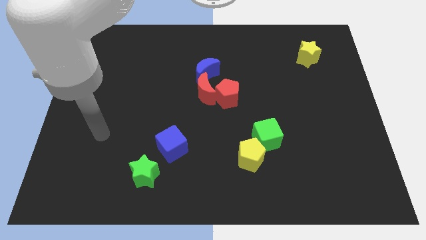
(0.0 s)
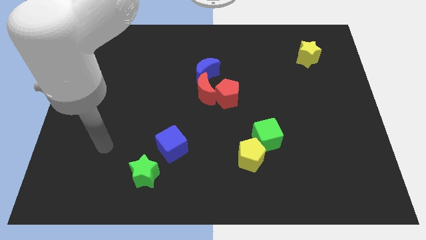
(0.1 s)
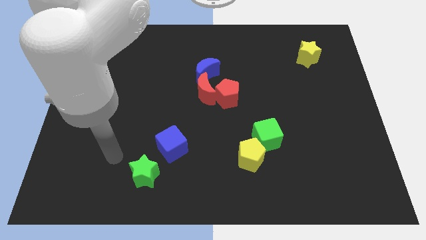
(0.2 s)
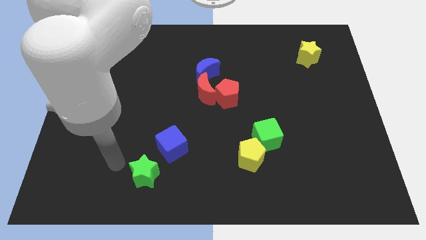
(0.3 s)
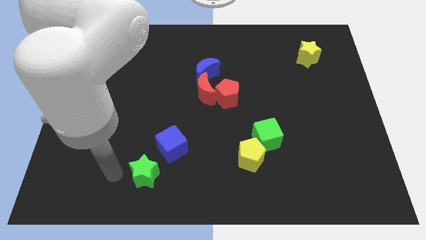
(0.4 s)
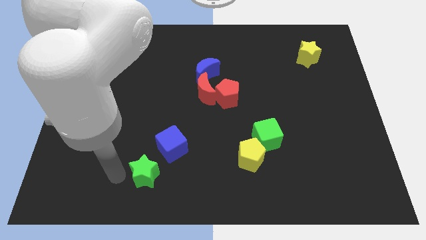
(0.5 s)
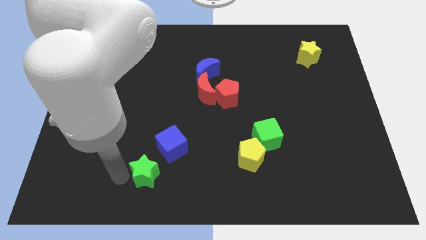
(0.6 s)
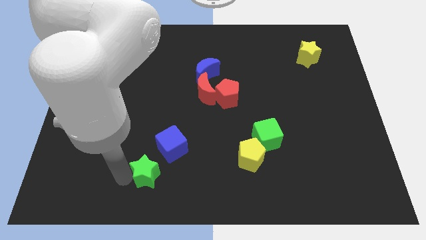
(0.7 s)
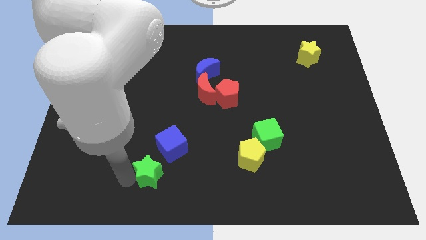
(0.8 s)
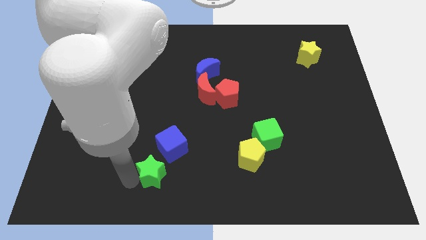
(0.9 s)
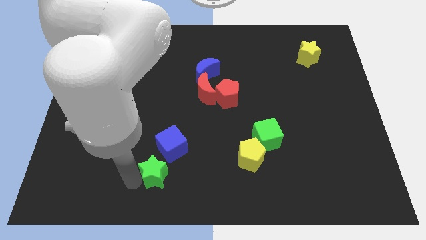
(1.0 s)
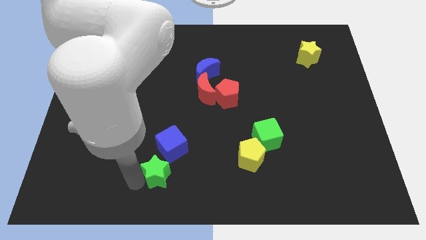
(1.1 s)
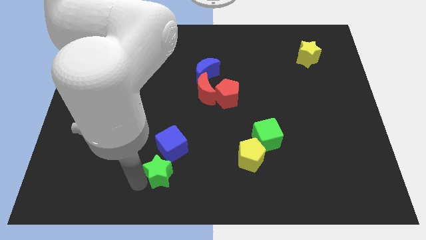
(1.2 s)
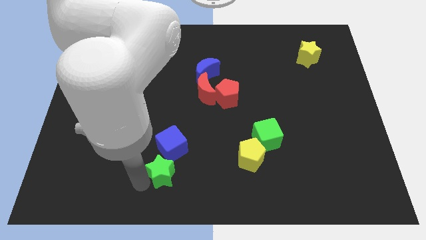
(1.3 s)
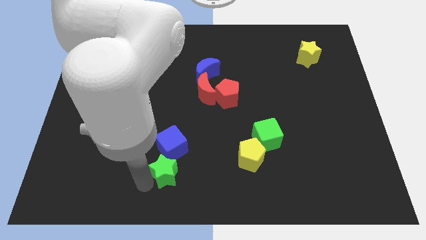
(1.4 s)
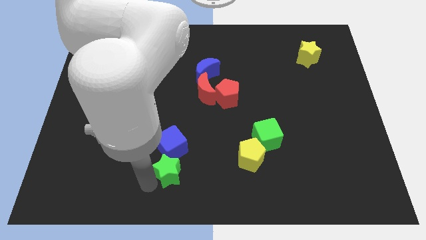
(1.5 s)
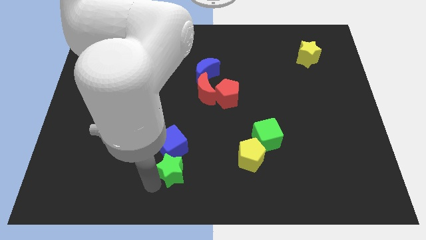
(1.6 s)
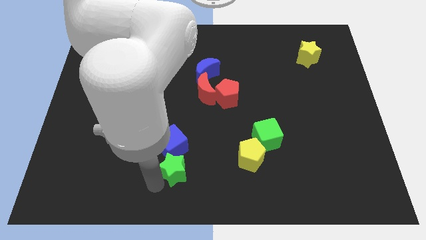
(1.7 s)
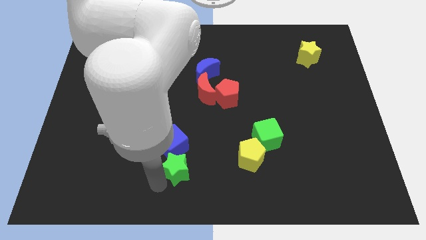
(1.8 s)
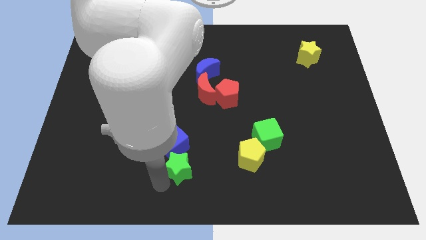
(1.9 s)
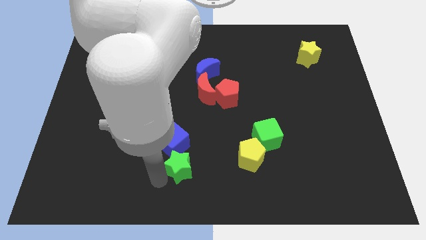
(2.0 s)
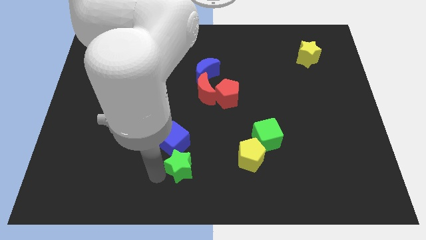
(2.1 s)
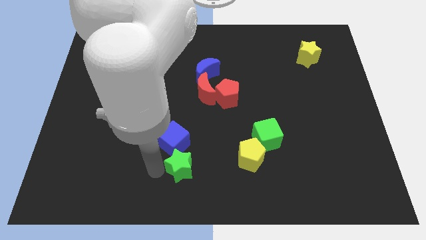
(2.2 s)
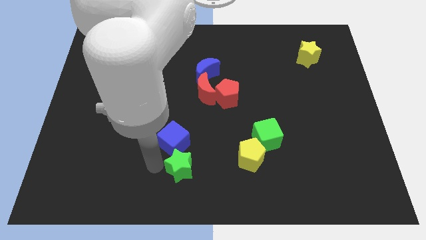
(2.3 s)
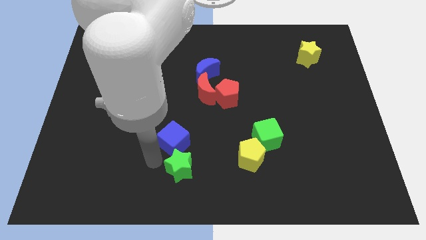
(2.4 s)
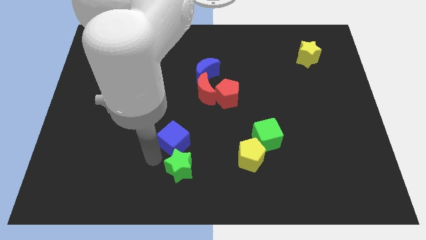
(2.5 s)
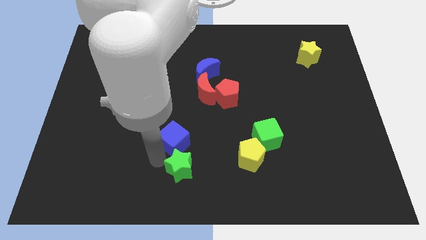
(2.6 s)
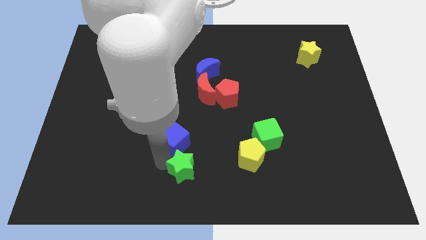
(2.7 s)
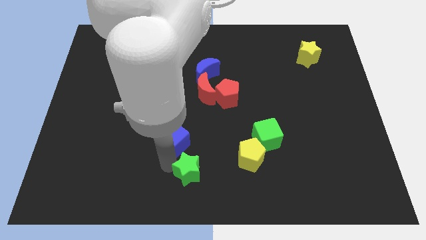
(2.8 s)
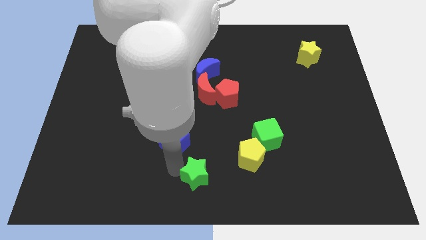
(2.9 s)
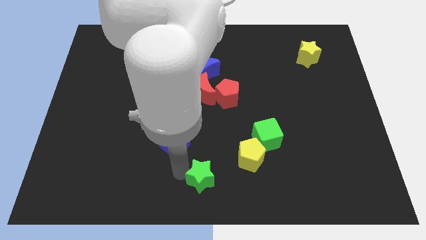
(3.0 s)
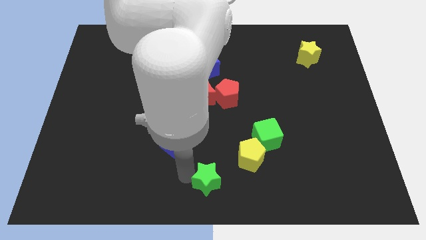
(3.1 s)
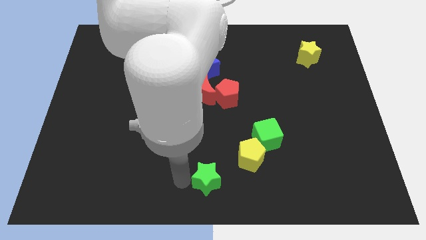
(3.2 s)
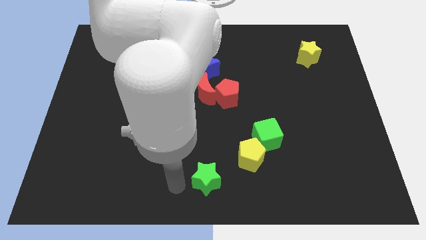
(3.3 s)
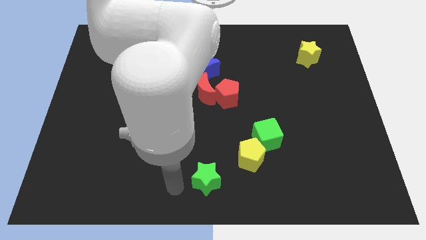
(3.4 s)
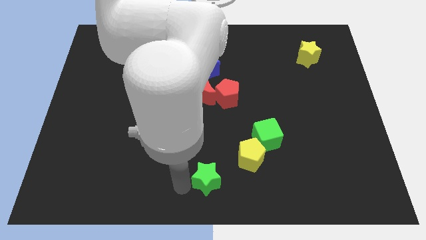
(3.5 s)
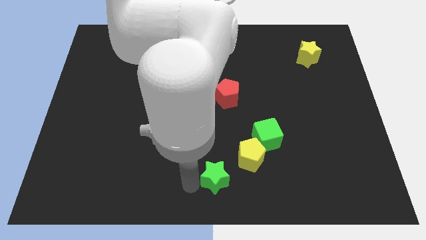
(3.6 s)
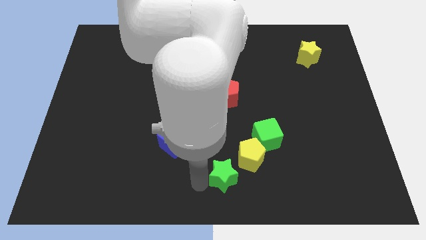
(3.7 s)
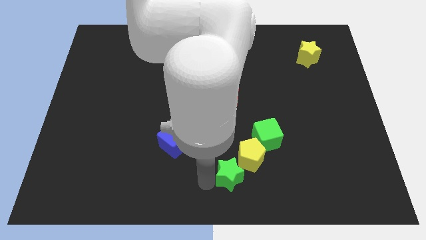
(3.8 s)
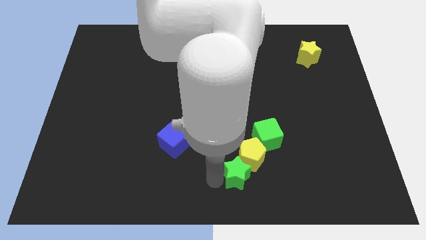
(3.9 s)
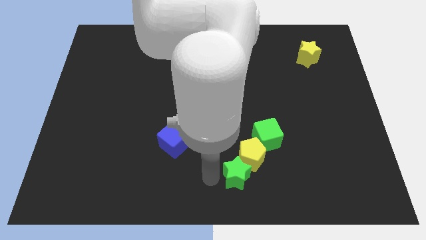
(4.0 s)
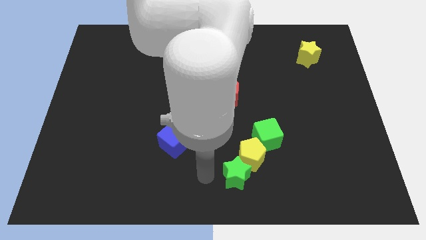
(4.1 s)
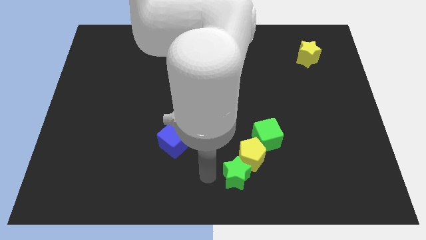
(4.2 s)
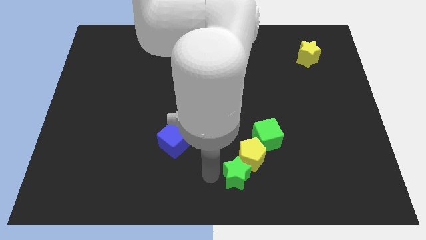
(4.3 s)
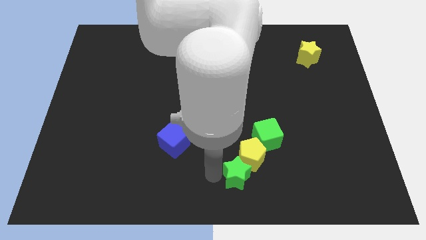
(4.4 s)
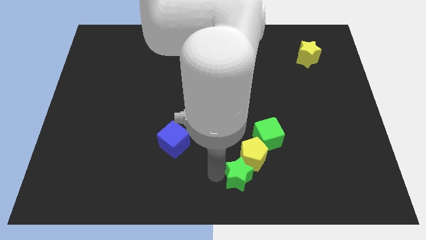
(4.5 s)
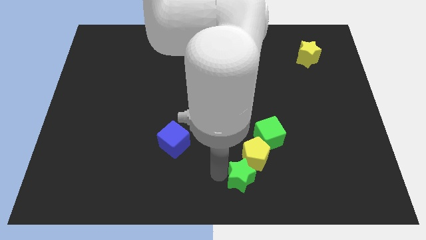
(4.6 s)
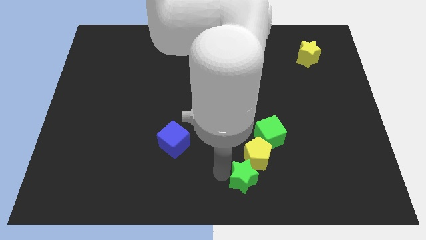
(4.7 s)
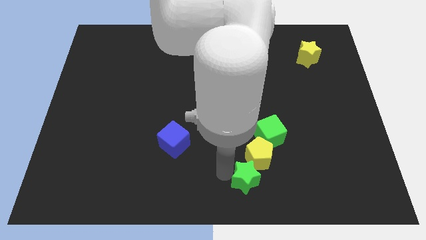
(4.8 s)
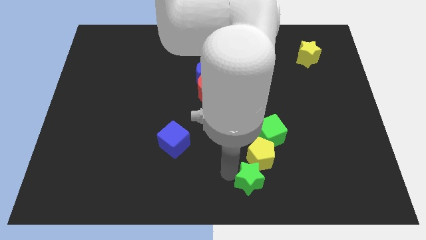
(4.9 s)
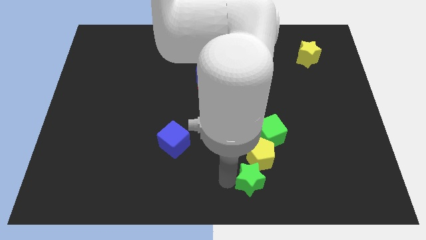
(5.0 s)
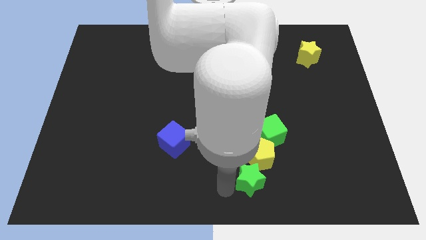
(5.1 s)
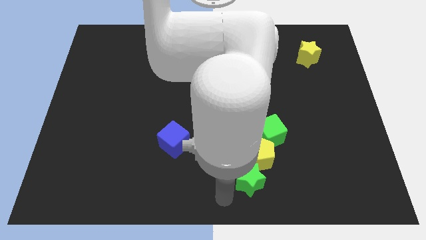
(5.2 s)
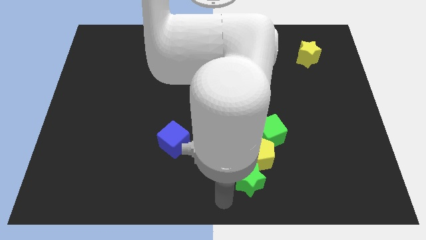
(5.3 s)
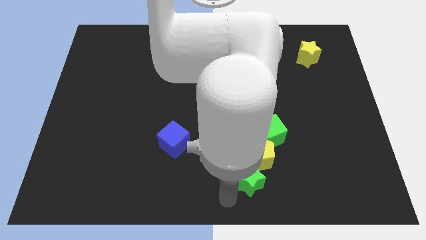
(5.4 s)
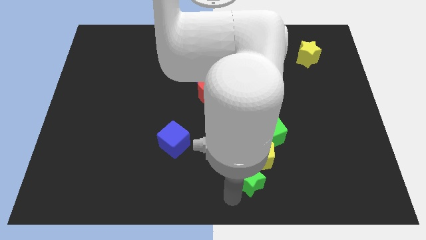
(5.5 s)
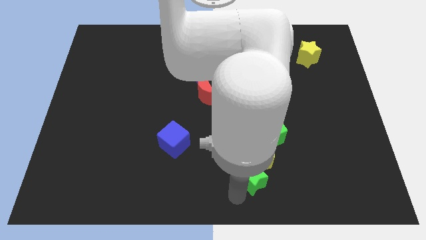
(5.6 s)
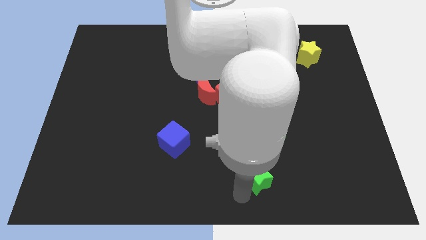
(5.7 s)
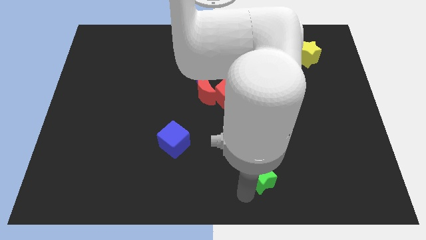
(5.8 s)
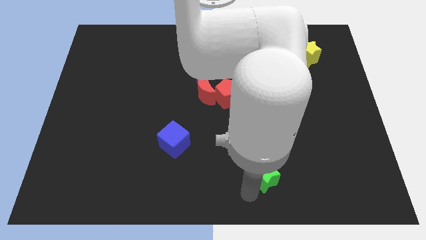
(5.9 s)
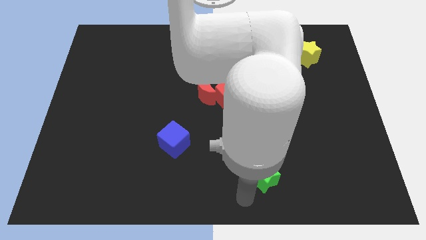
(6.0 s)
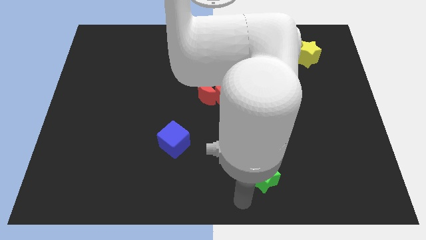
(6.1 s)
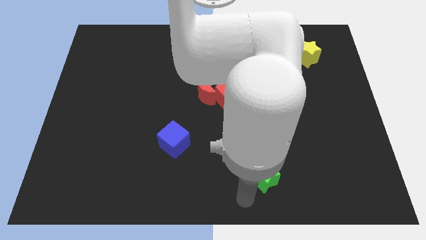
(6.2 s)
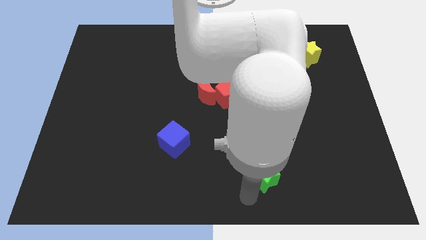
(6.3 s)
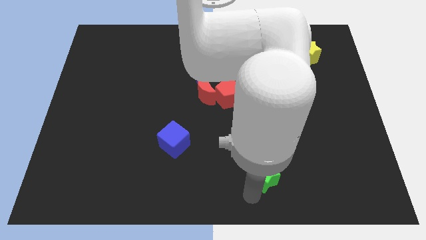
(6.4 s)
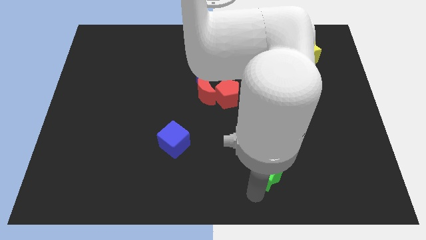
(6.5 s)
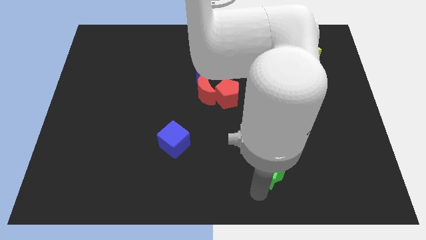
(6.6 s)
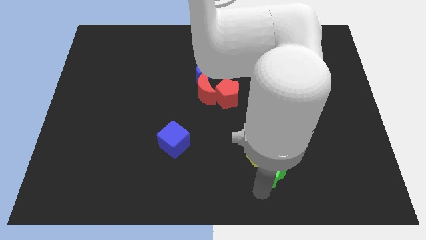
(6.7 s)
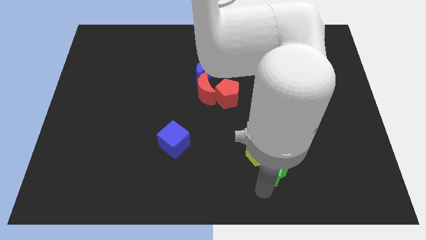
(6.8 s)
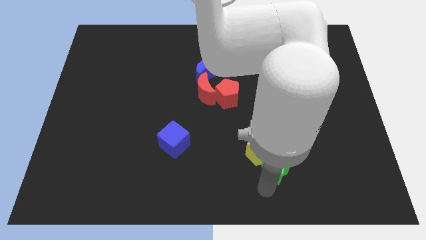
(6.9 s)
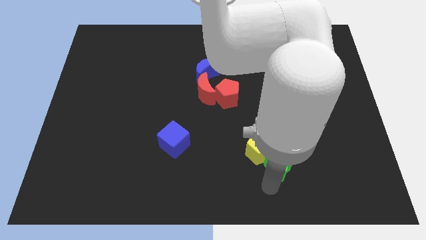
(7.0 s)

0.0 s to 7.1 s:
push the green star right of the yellow pentagon
